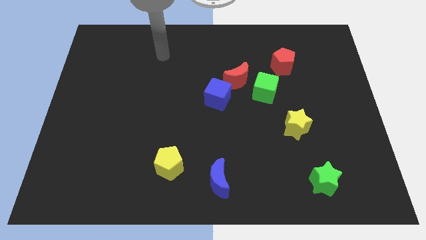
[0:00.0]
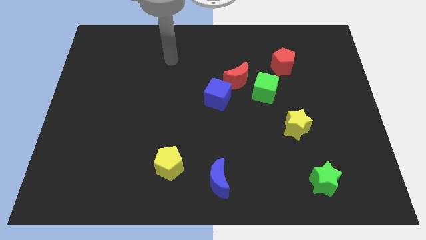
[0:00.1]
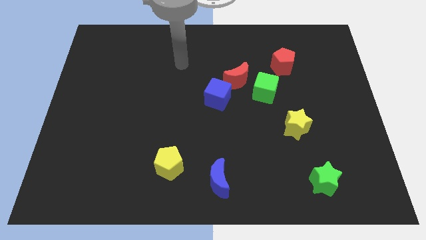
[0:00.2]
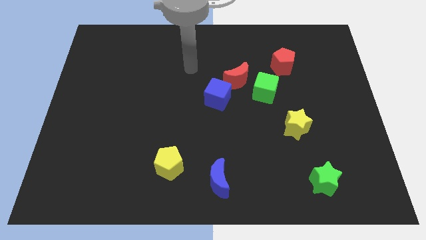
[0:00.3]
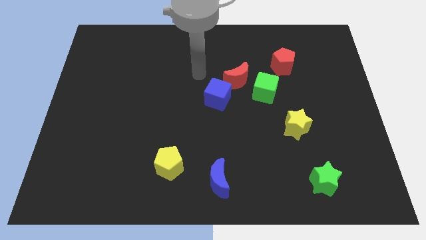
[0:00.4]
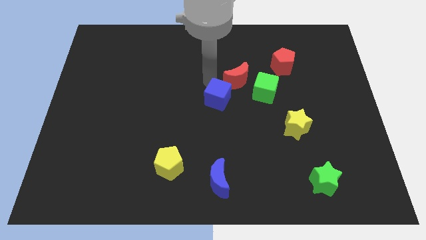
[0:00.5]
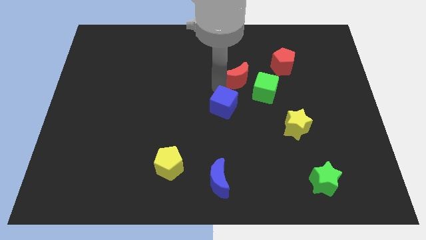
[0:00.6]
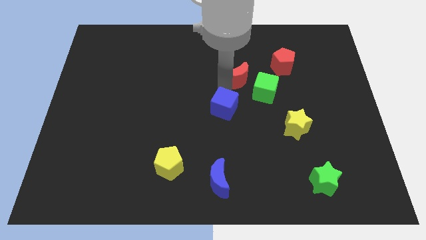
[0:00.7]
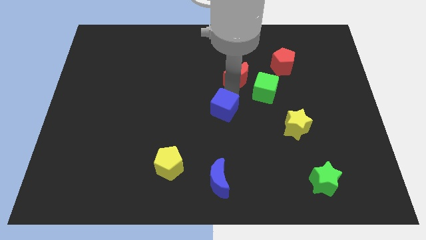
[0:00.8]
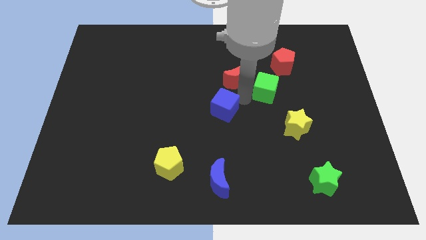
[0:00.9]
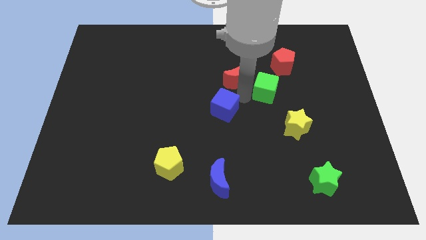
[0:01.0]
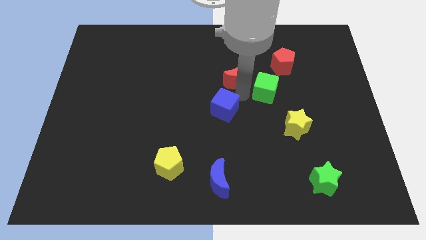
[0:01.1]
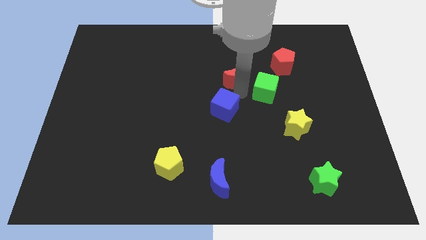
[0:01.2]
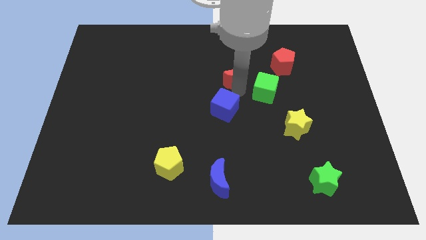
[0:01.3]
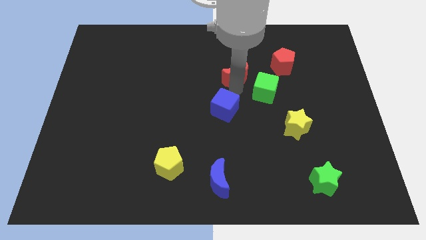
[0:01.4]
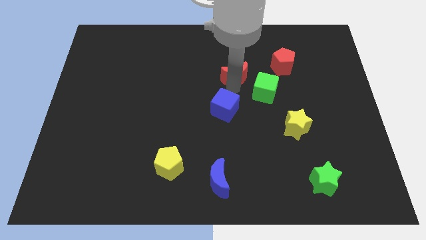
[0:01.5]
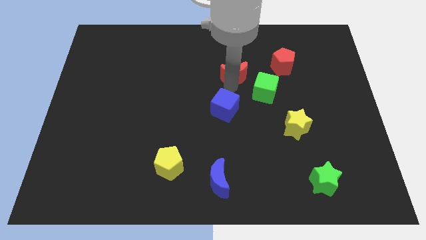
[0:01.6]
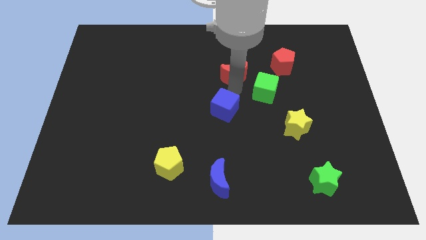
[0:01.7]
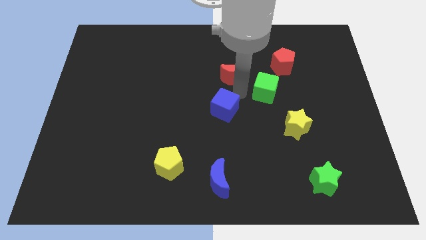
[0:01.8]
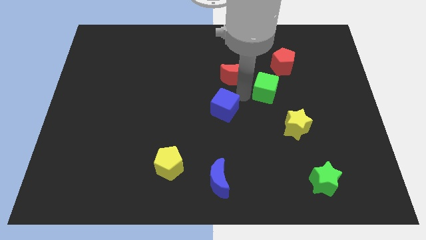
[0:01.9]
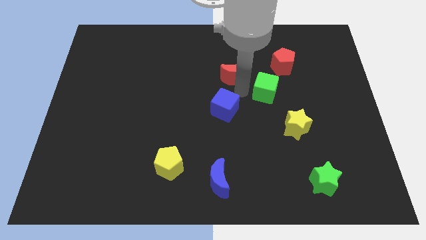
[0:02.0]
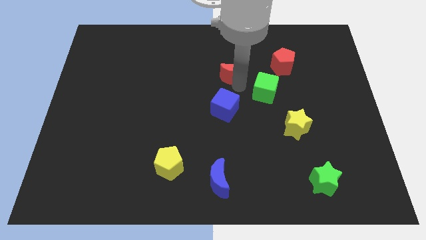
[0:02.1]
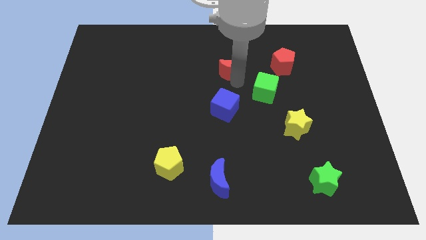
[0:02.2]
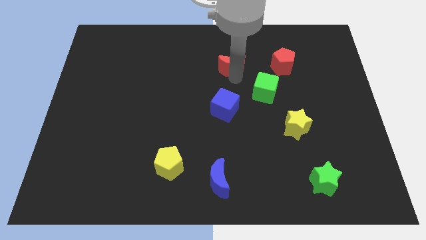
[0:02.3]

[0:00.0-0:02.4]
move the red moon away from the green cube and blue cube

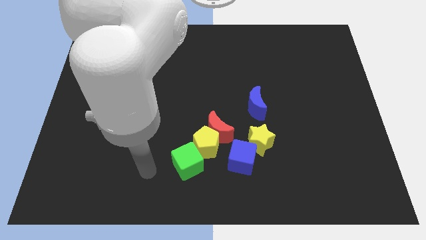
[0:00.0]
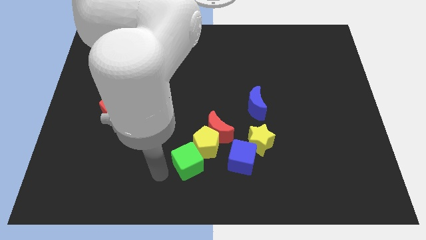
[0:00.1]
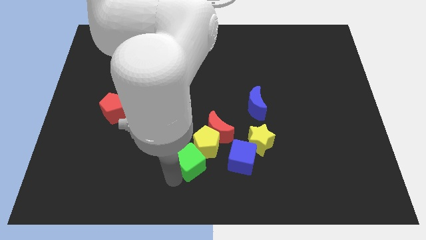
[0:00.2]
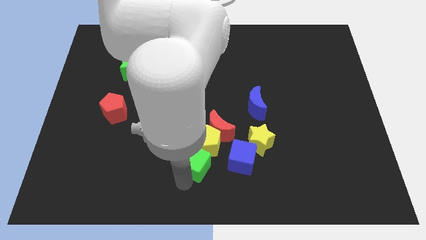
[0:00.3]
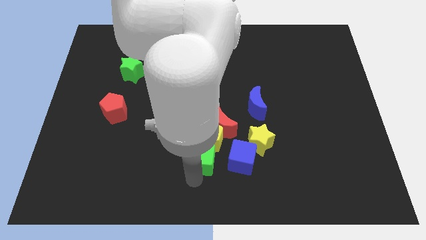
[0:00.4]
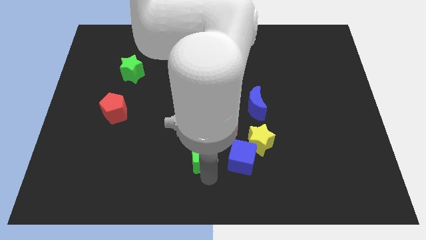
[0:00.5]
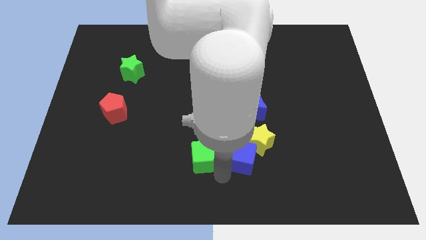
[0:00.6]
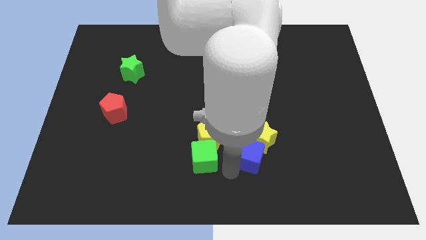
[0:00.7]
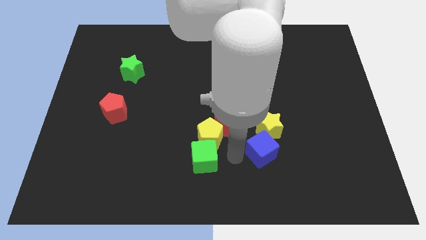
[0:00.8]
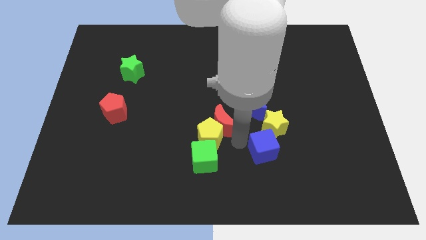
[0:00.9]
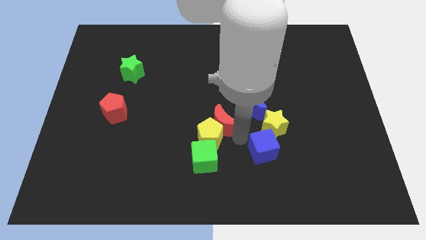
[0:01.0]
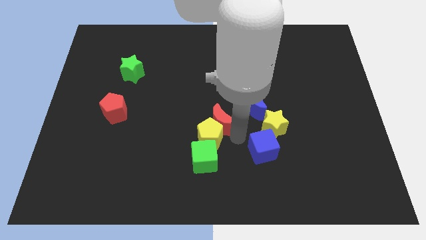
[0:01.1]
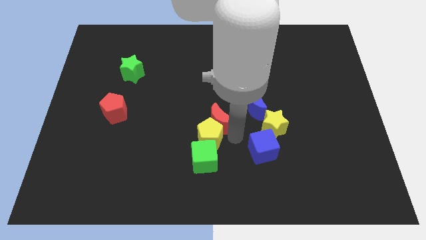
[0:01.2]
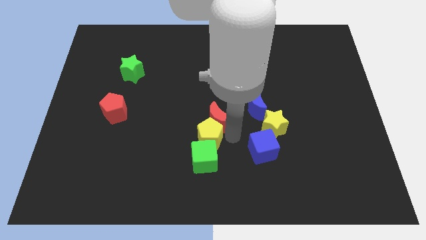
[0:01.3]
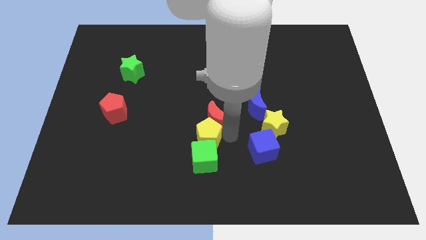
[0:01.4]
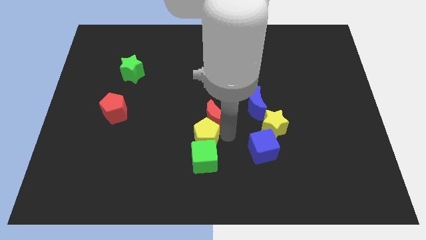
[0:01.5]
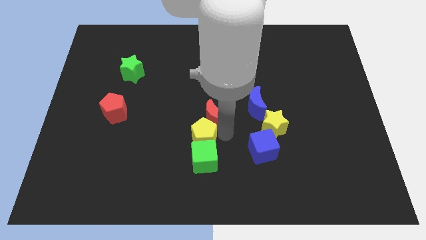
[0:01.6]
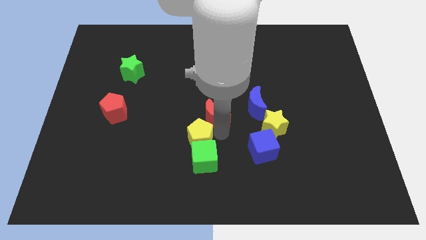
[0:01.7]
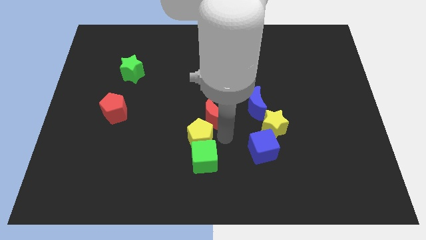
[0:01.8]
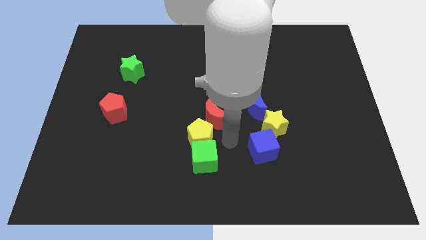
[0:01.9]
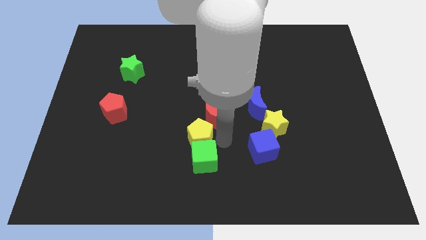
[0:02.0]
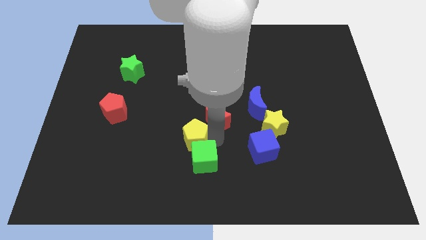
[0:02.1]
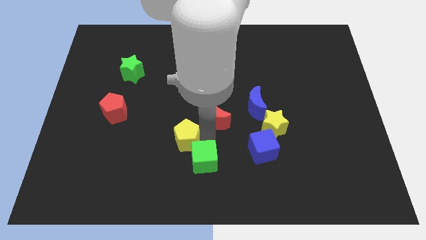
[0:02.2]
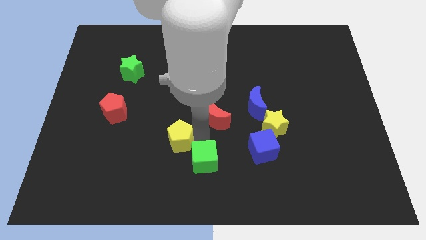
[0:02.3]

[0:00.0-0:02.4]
move the yellow pentagon away from the red moon, green cube, and blue cube

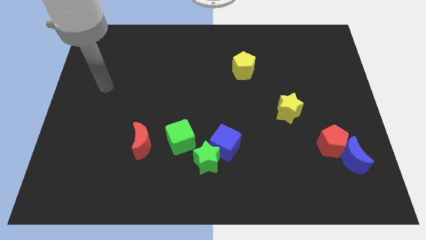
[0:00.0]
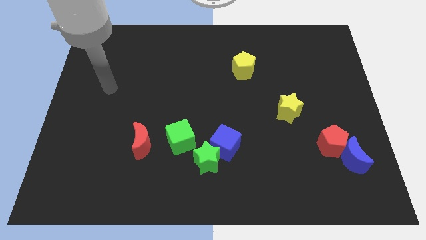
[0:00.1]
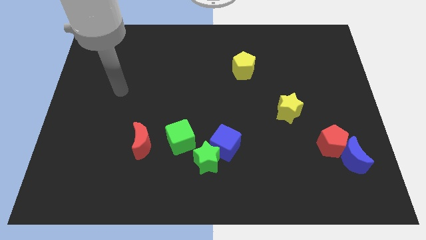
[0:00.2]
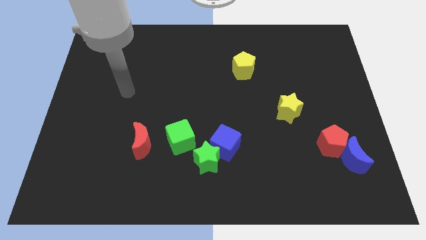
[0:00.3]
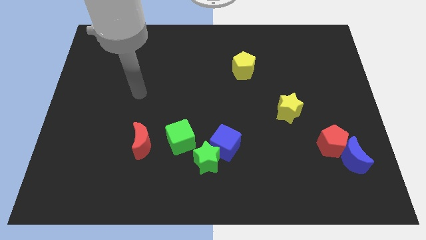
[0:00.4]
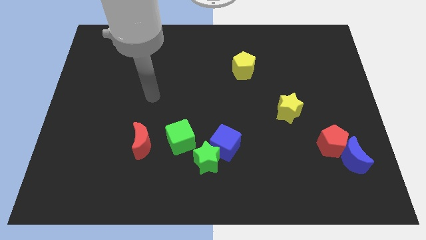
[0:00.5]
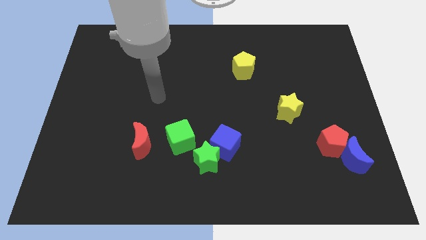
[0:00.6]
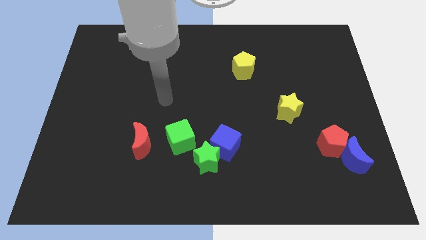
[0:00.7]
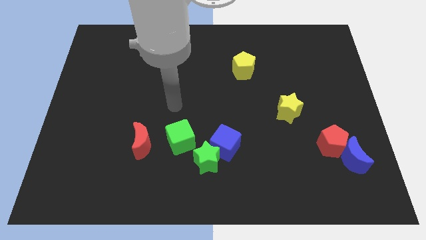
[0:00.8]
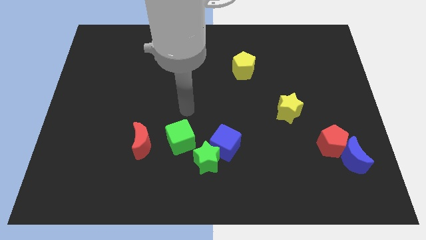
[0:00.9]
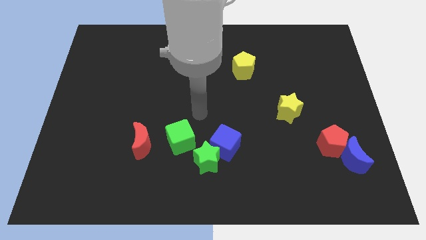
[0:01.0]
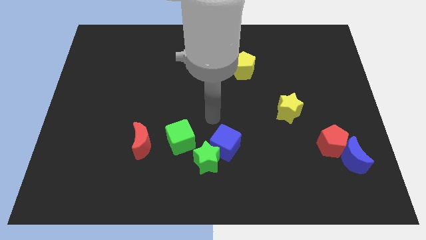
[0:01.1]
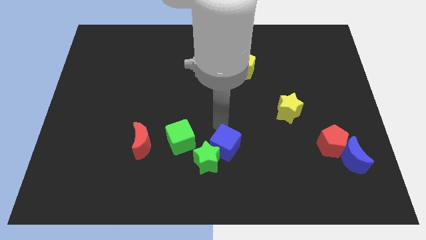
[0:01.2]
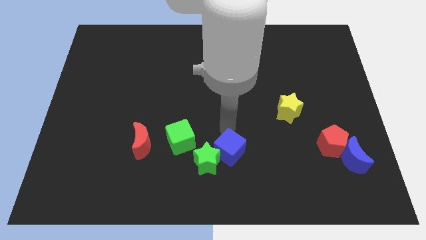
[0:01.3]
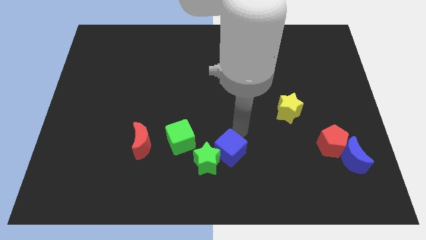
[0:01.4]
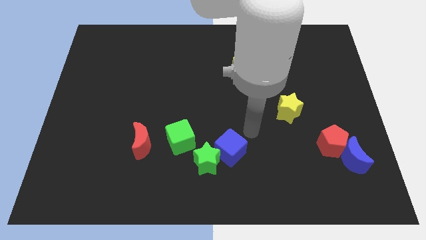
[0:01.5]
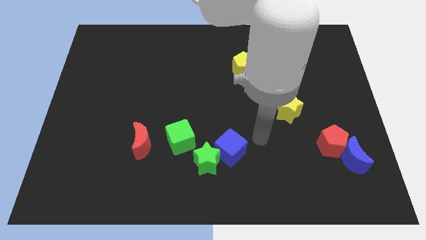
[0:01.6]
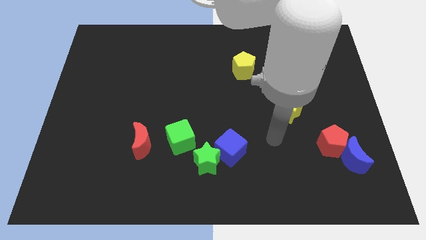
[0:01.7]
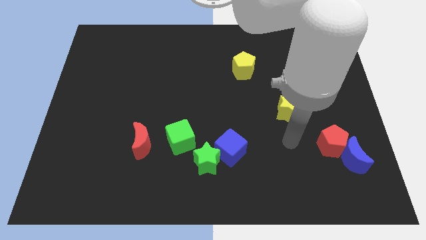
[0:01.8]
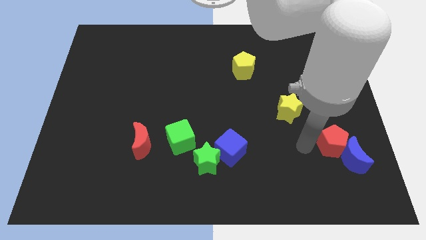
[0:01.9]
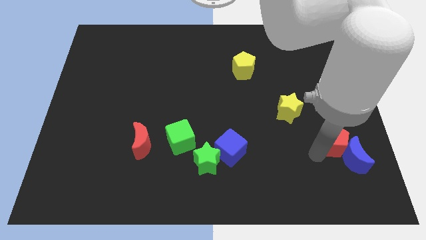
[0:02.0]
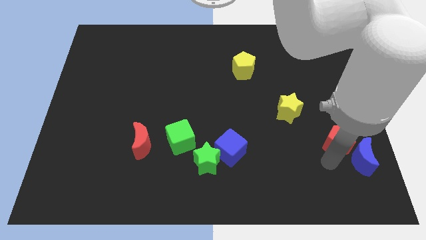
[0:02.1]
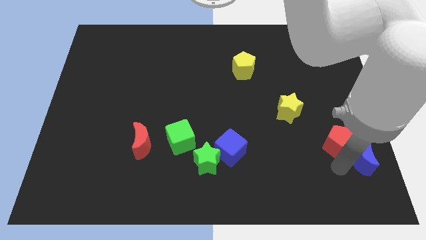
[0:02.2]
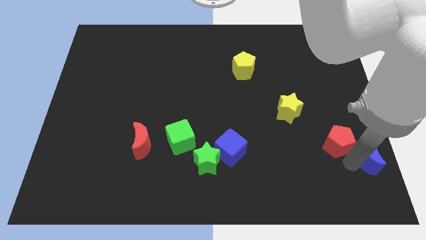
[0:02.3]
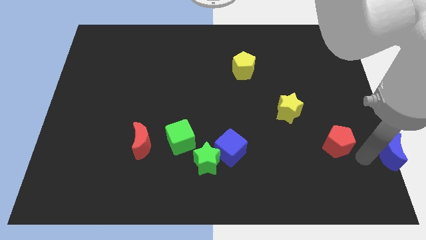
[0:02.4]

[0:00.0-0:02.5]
pull the red pentagon apart from the blue moon

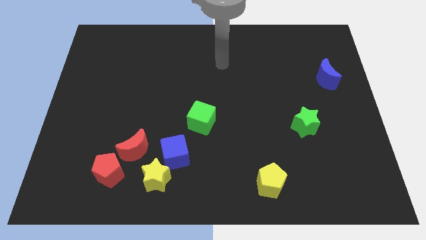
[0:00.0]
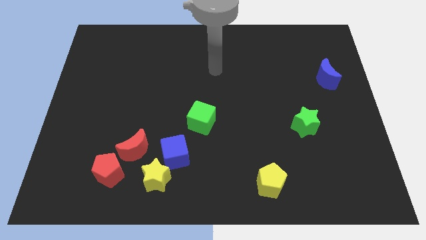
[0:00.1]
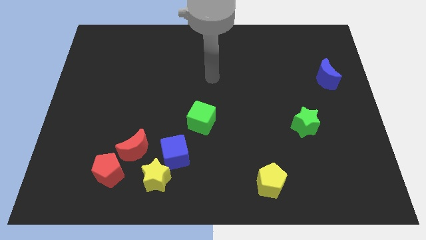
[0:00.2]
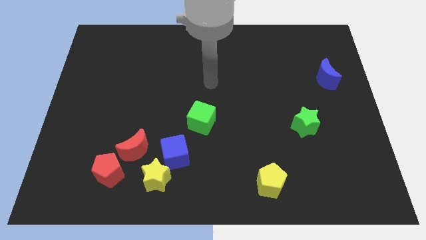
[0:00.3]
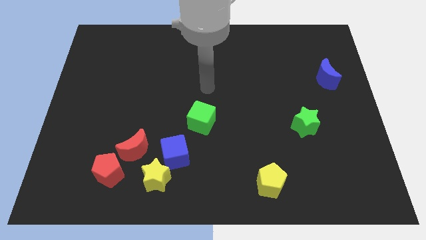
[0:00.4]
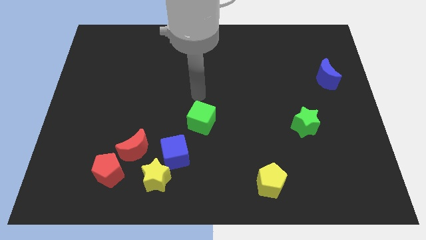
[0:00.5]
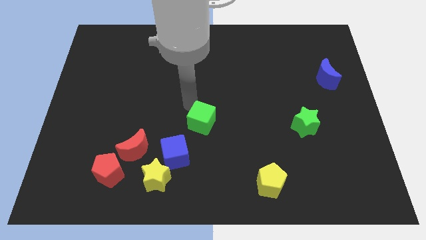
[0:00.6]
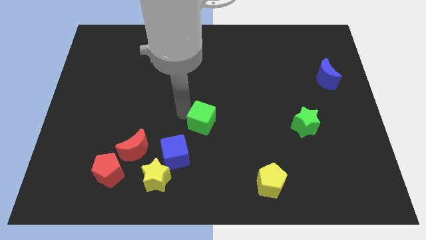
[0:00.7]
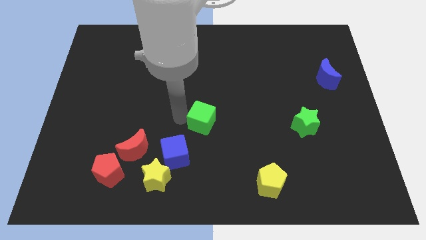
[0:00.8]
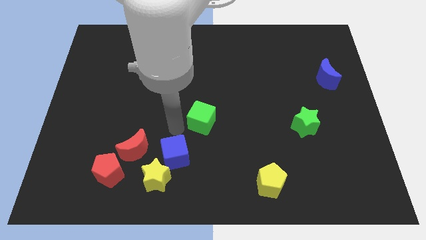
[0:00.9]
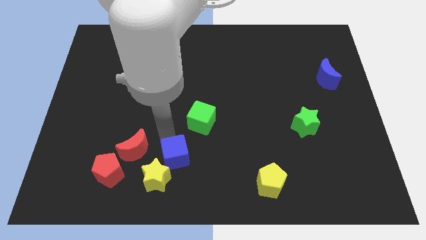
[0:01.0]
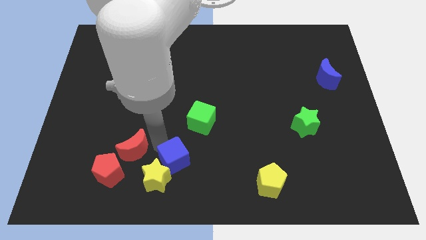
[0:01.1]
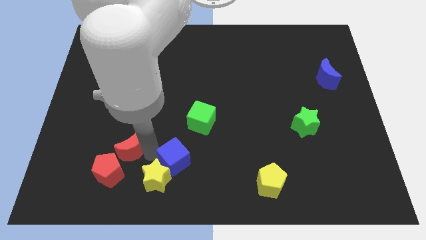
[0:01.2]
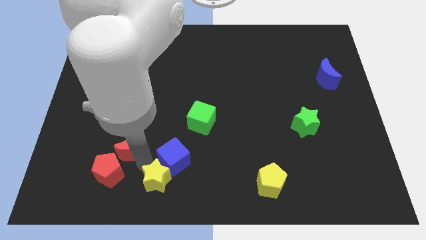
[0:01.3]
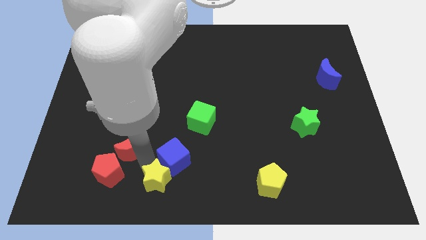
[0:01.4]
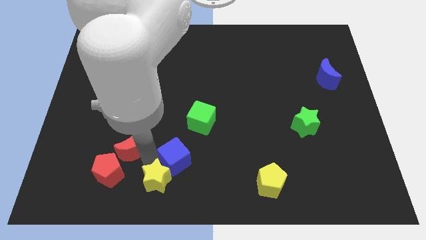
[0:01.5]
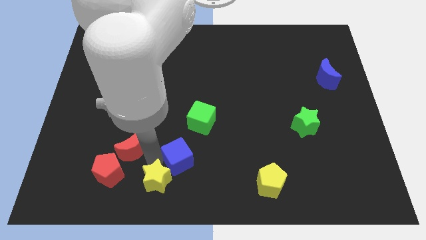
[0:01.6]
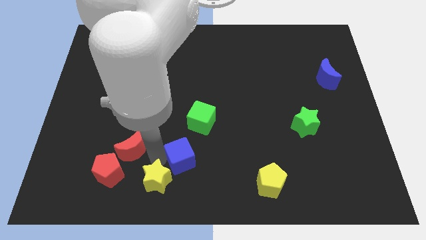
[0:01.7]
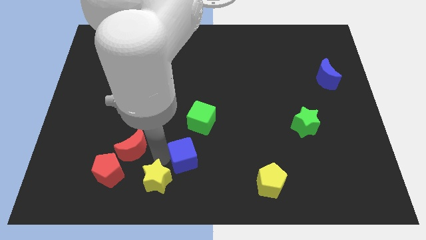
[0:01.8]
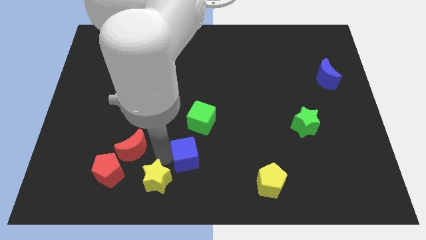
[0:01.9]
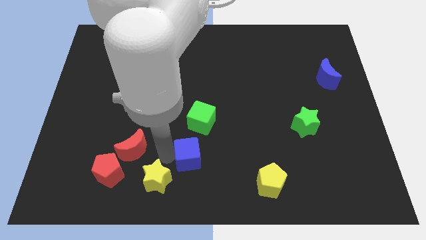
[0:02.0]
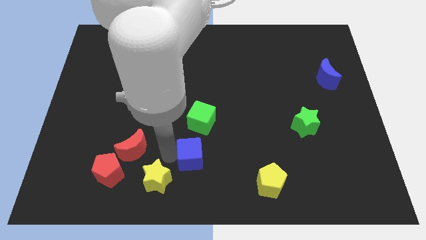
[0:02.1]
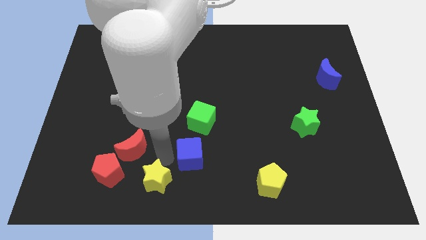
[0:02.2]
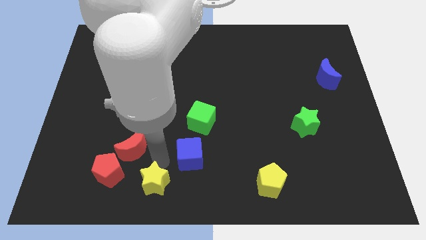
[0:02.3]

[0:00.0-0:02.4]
move the blue cube away from the yellow star and red moon
